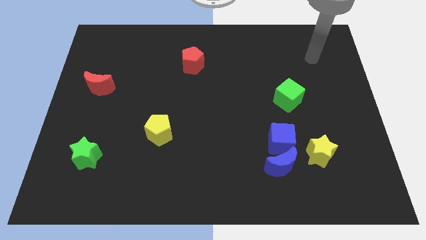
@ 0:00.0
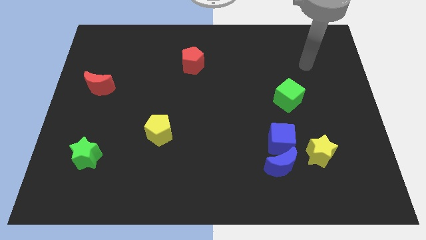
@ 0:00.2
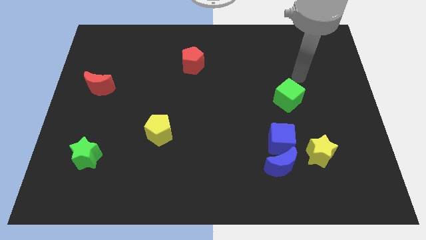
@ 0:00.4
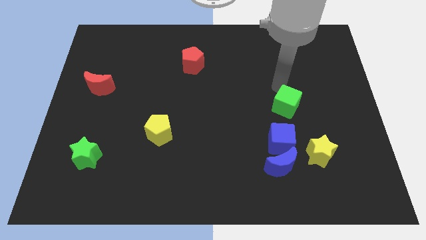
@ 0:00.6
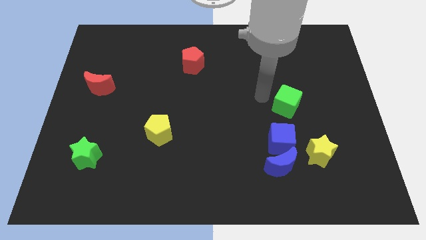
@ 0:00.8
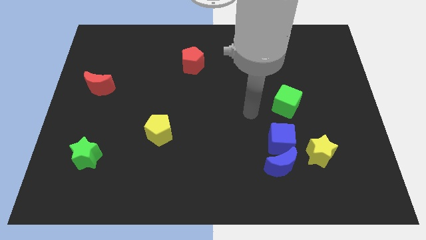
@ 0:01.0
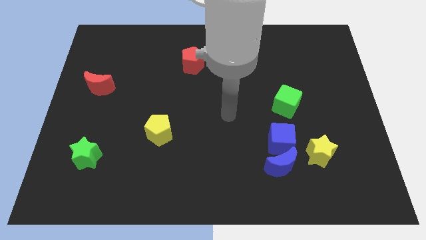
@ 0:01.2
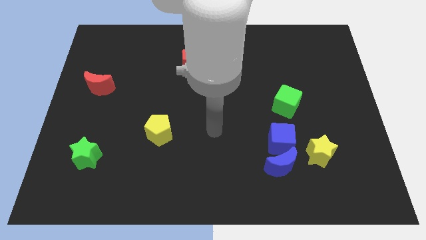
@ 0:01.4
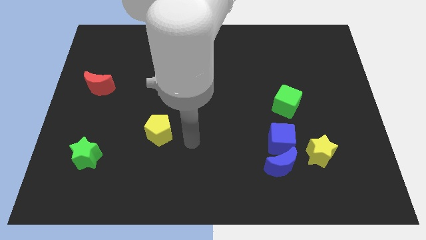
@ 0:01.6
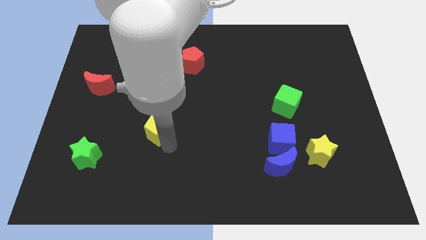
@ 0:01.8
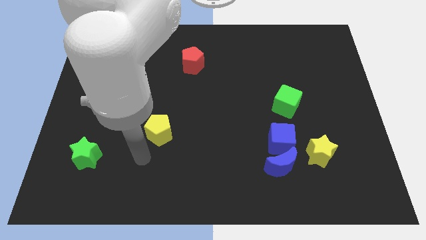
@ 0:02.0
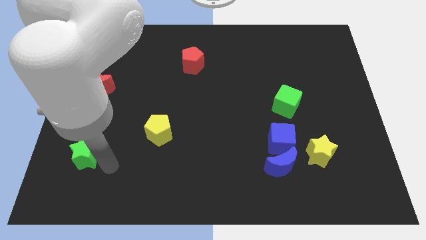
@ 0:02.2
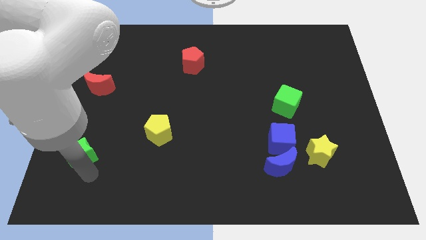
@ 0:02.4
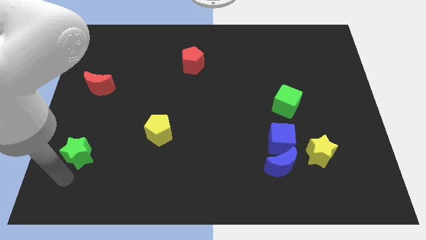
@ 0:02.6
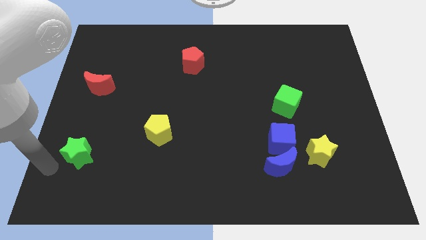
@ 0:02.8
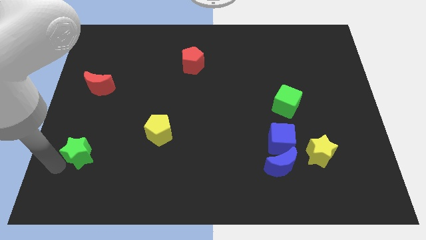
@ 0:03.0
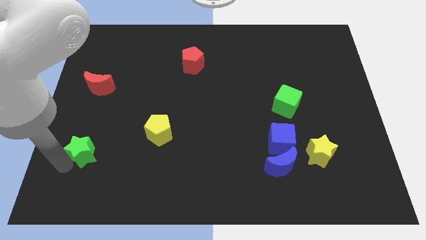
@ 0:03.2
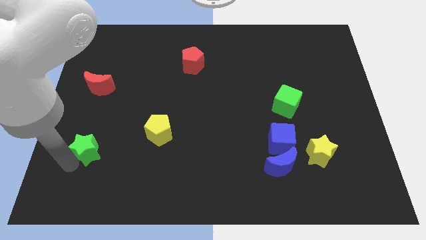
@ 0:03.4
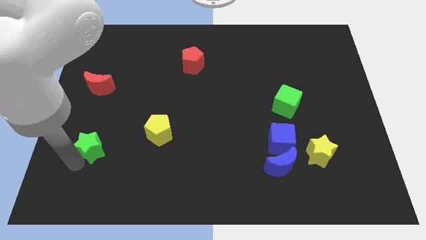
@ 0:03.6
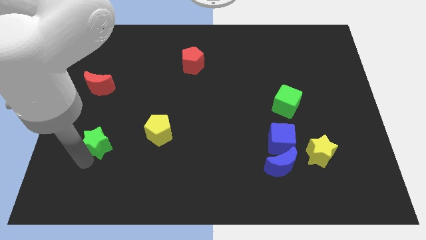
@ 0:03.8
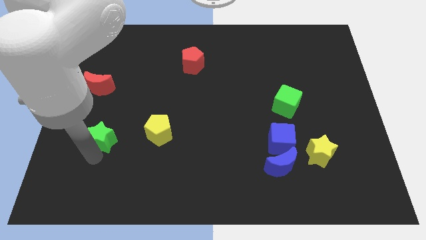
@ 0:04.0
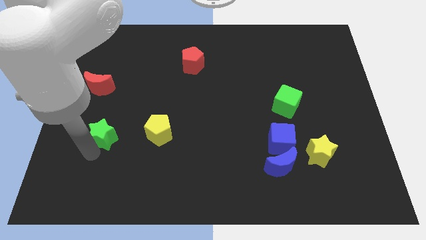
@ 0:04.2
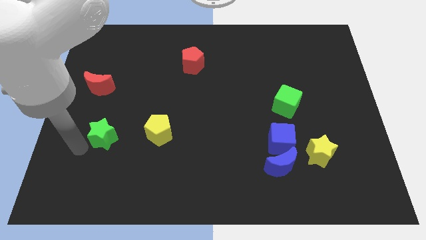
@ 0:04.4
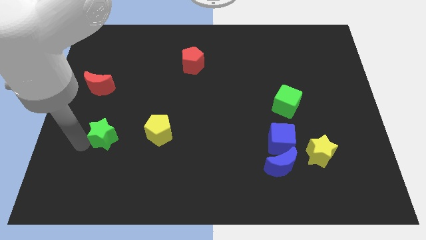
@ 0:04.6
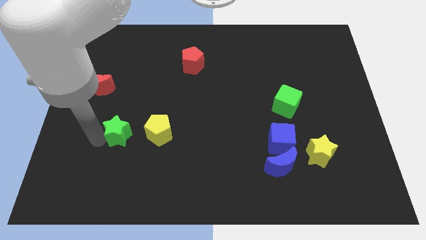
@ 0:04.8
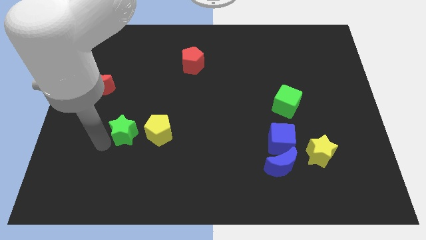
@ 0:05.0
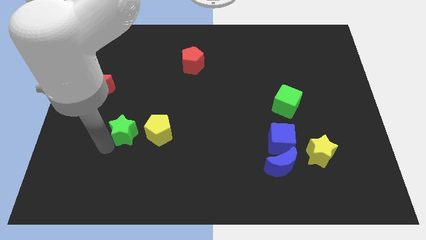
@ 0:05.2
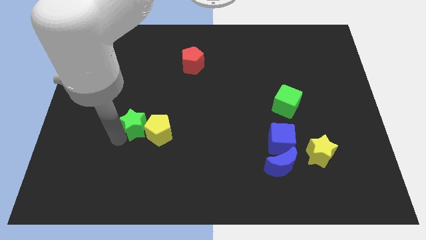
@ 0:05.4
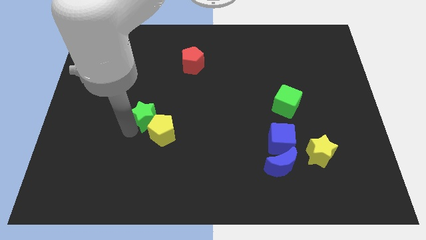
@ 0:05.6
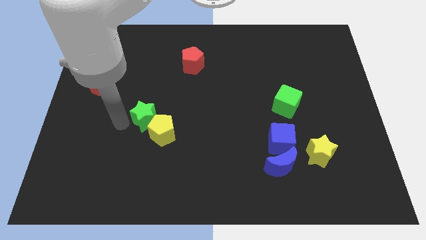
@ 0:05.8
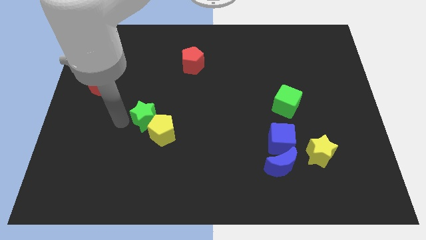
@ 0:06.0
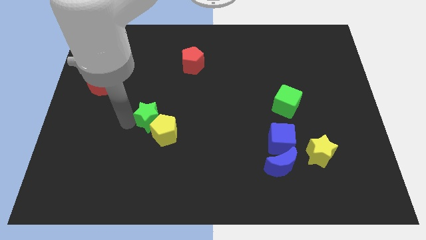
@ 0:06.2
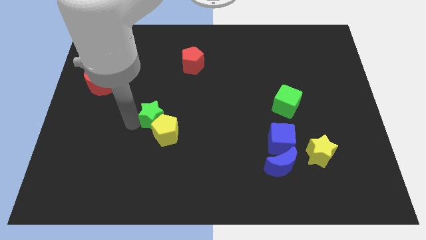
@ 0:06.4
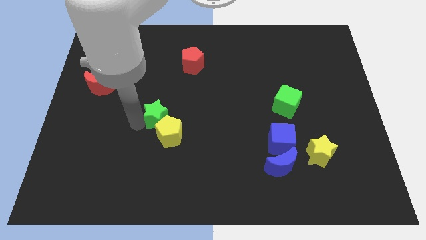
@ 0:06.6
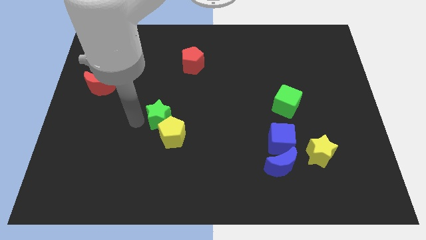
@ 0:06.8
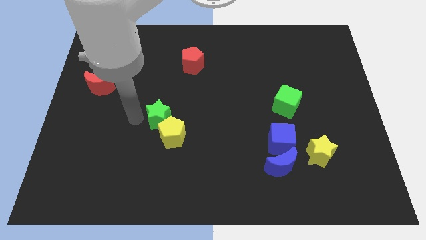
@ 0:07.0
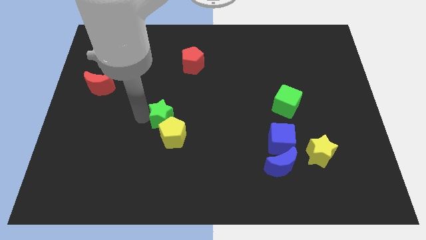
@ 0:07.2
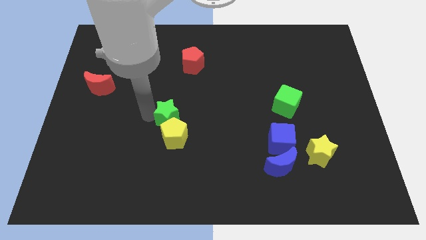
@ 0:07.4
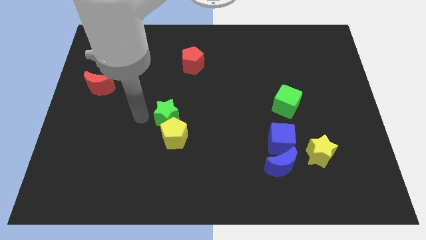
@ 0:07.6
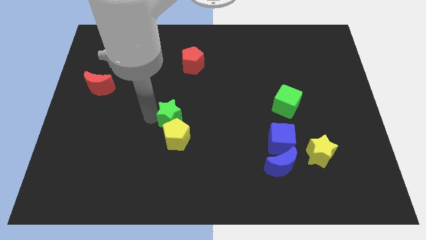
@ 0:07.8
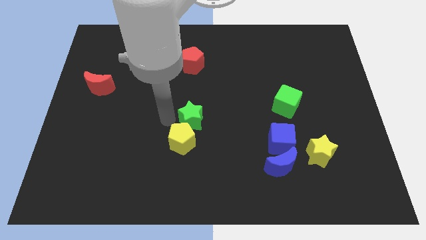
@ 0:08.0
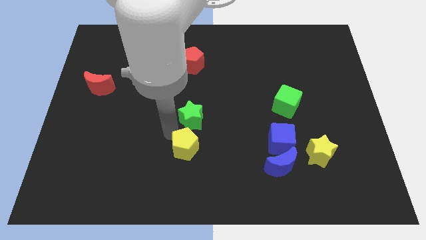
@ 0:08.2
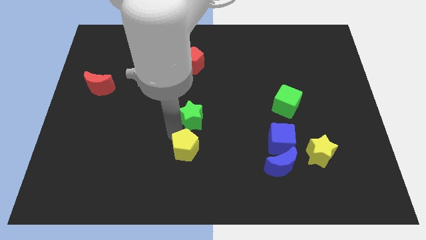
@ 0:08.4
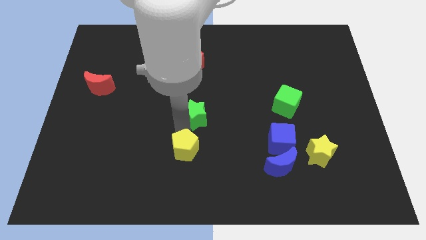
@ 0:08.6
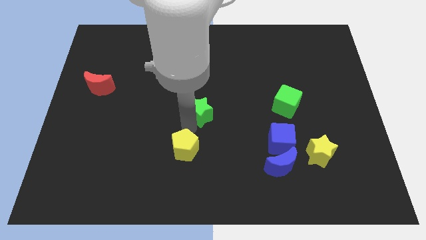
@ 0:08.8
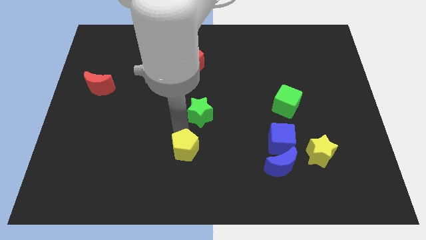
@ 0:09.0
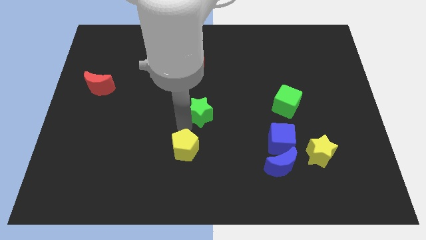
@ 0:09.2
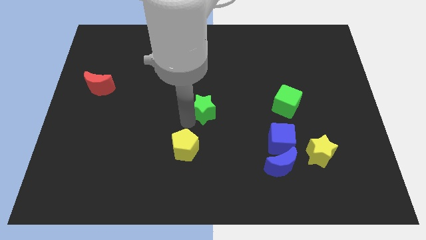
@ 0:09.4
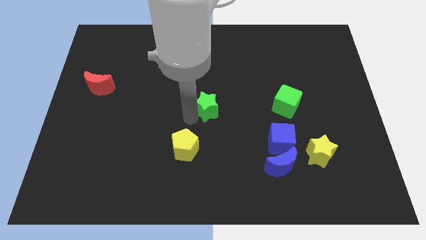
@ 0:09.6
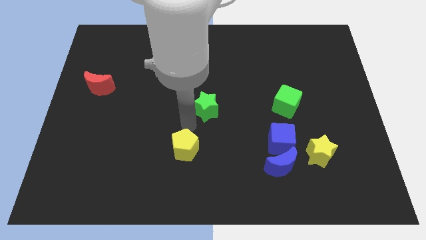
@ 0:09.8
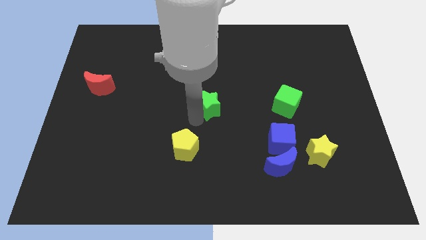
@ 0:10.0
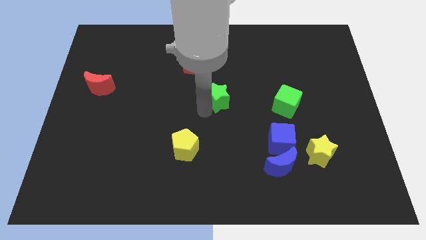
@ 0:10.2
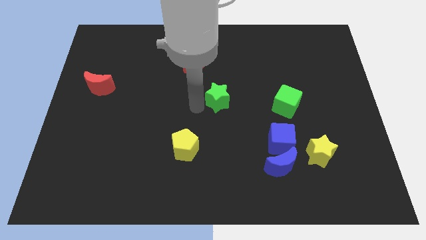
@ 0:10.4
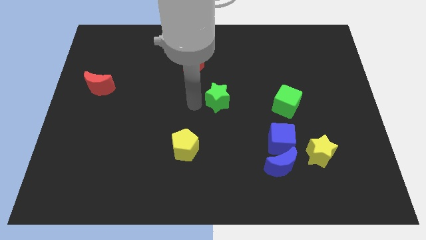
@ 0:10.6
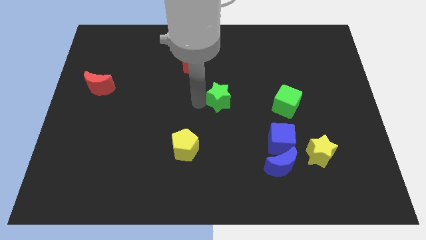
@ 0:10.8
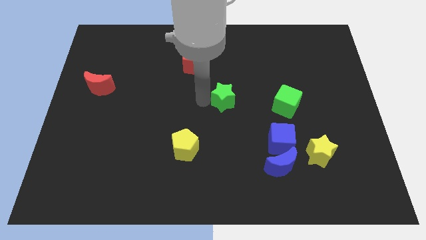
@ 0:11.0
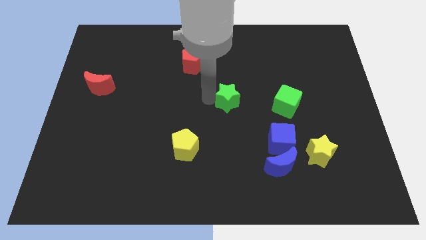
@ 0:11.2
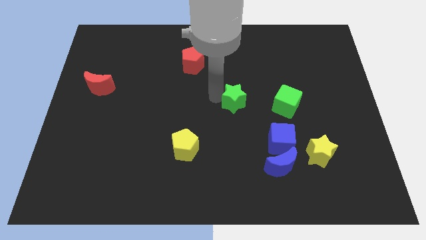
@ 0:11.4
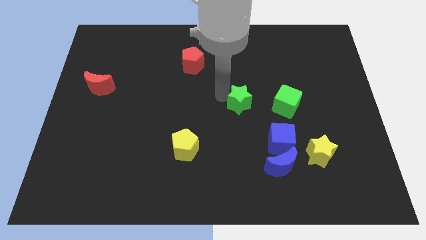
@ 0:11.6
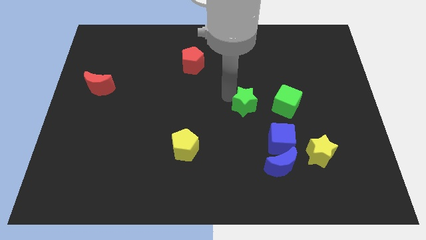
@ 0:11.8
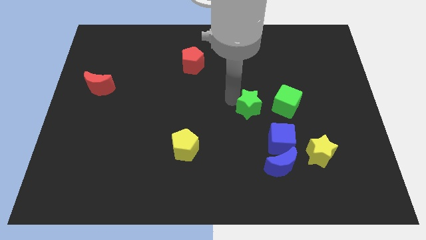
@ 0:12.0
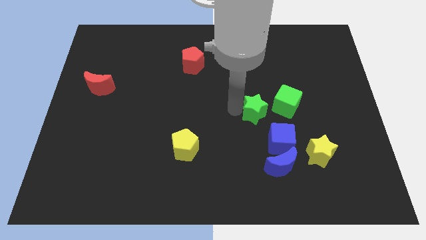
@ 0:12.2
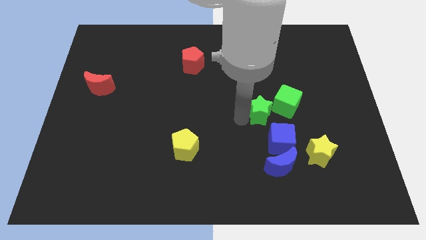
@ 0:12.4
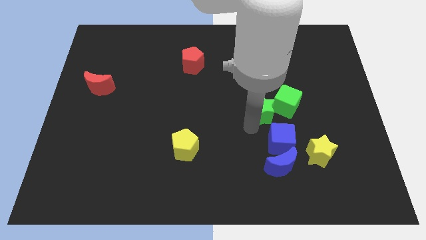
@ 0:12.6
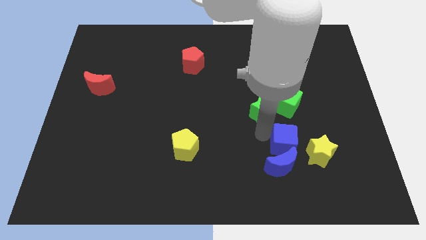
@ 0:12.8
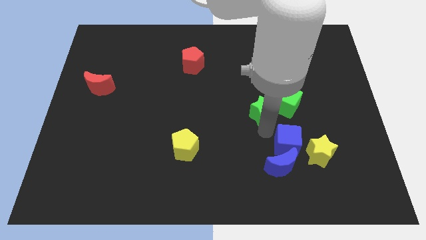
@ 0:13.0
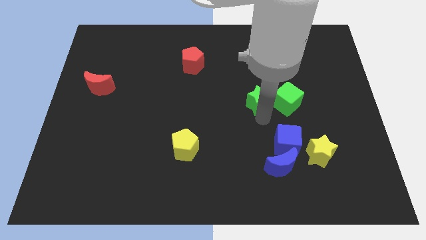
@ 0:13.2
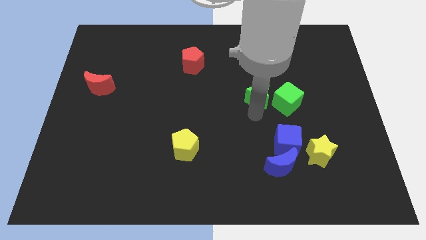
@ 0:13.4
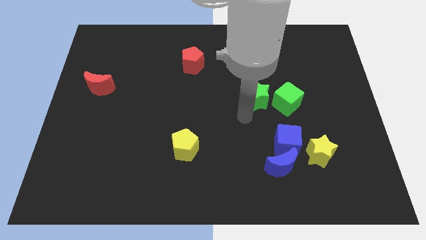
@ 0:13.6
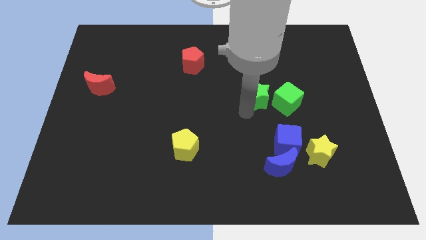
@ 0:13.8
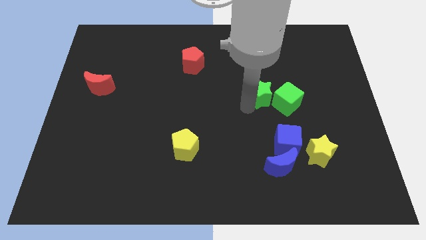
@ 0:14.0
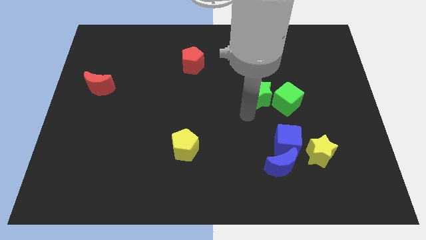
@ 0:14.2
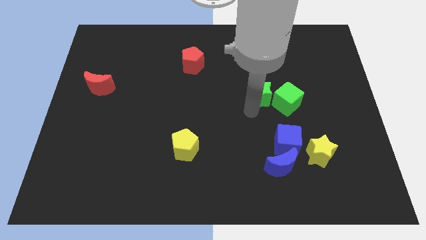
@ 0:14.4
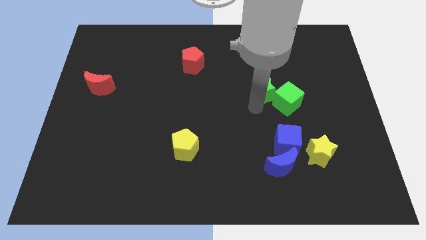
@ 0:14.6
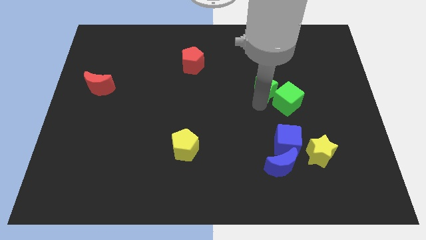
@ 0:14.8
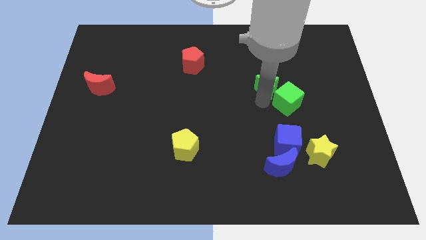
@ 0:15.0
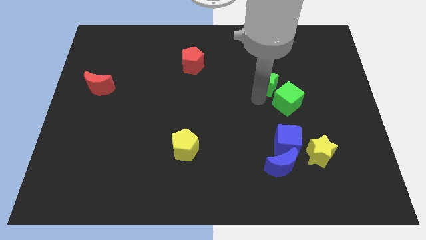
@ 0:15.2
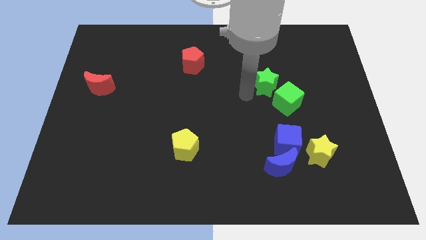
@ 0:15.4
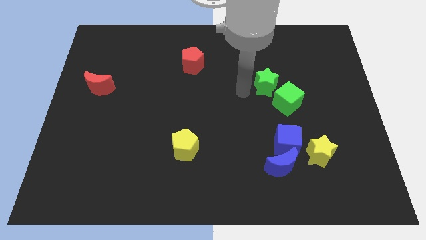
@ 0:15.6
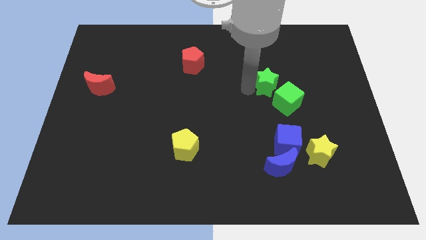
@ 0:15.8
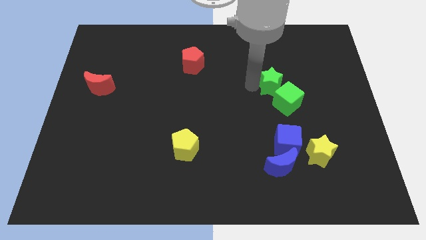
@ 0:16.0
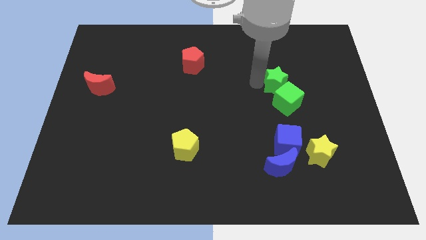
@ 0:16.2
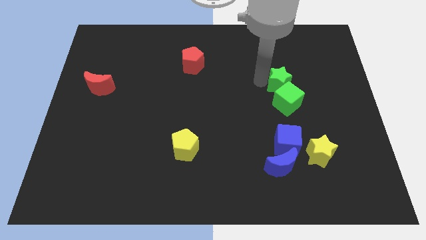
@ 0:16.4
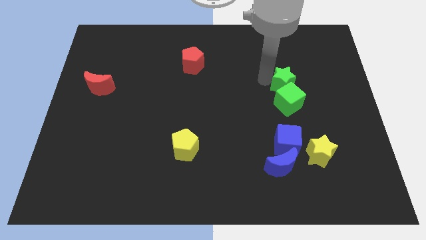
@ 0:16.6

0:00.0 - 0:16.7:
move the green star to the top right side of the green cube
